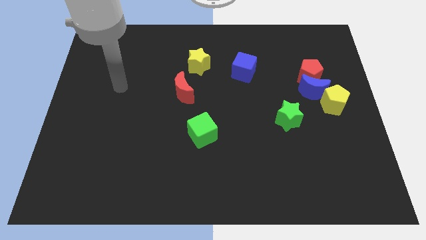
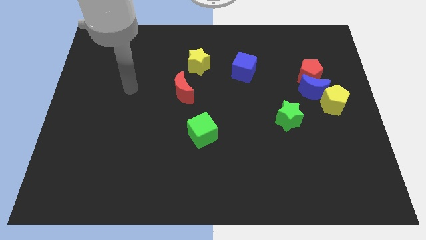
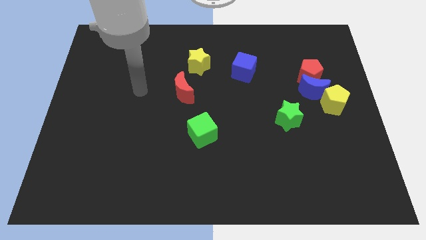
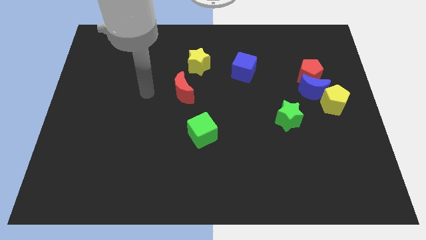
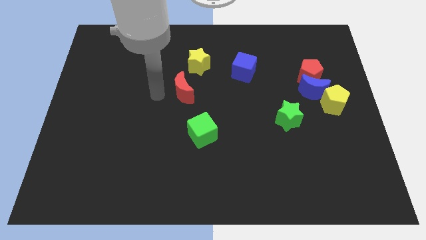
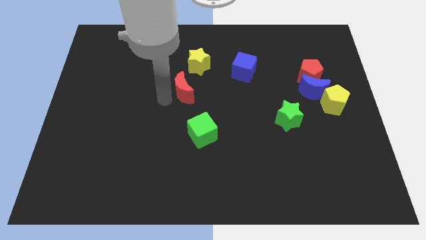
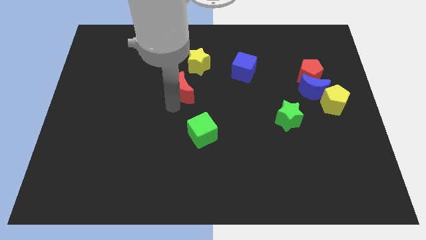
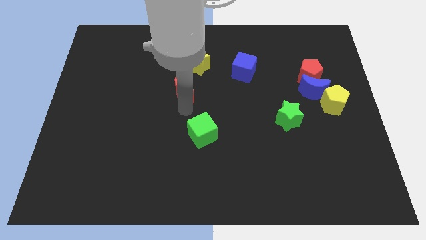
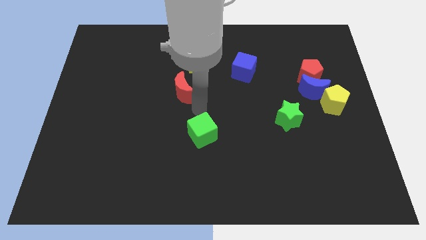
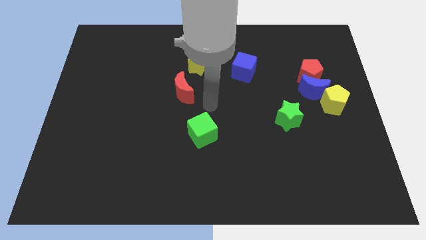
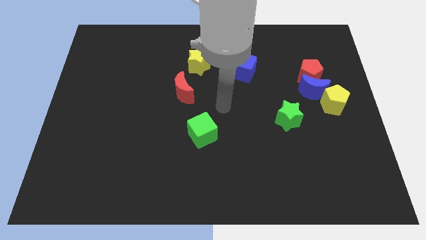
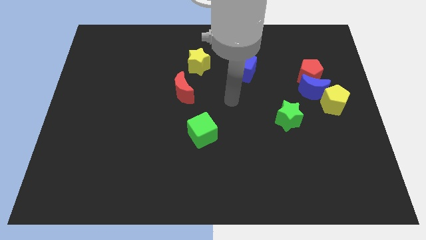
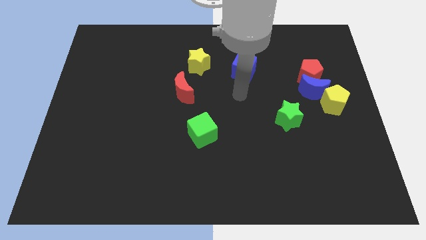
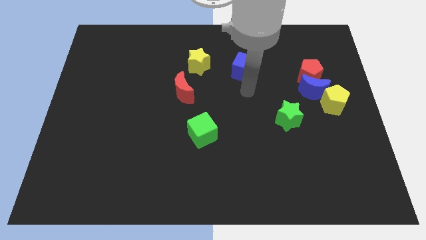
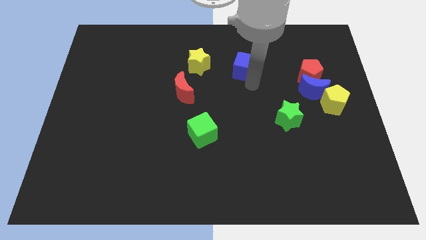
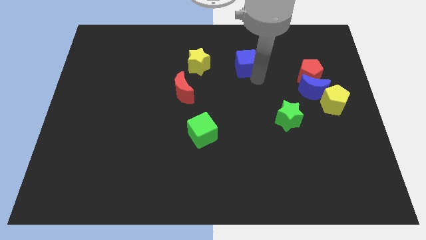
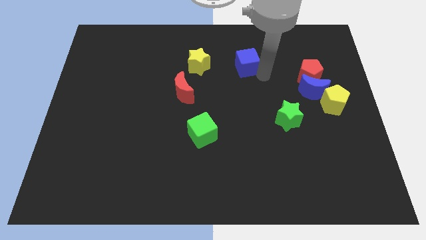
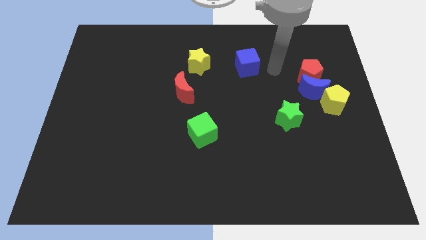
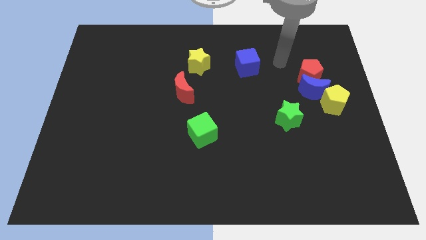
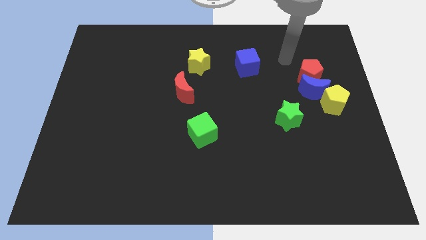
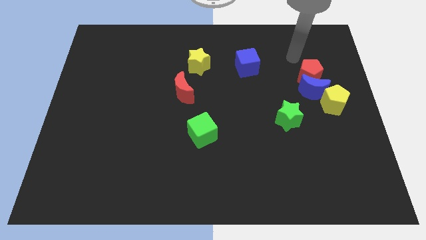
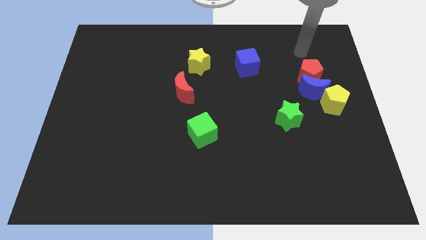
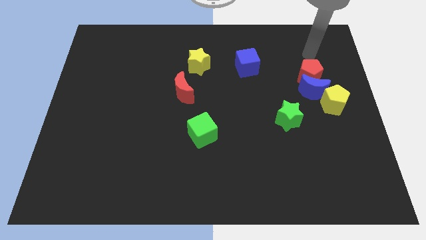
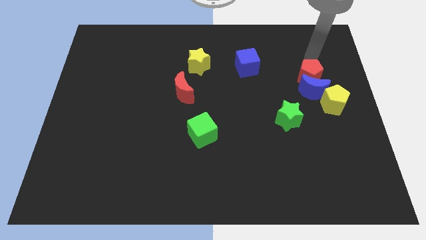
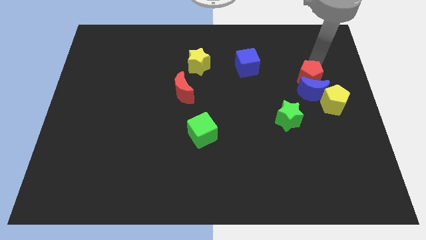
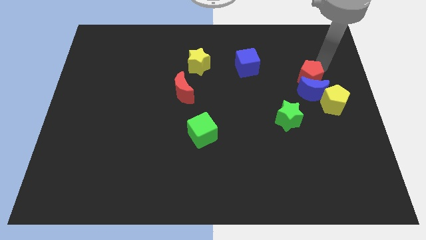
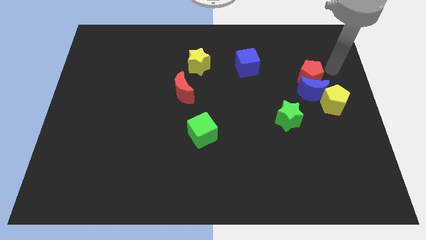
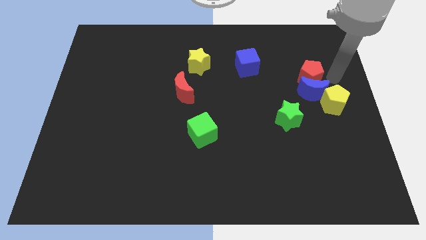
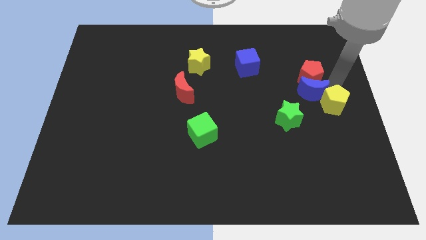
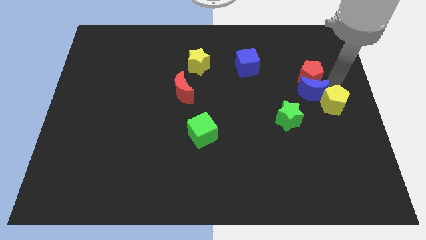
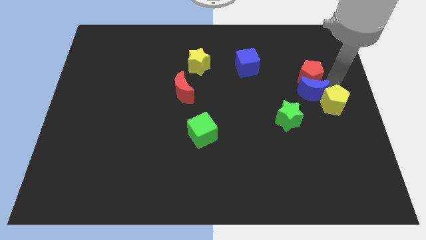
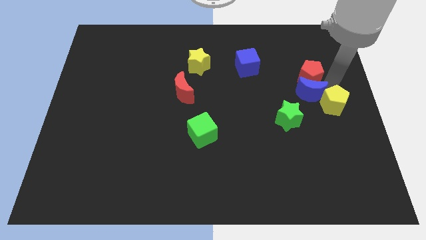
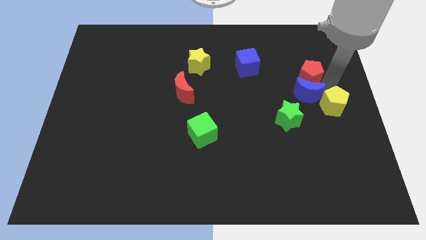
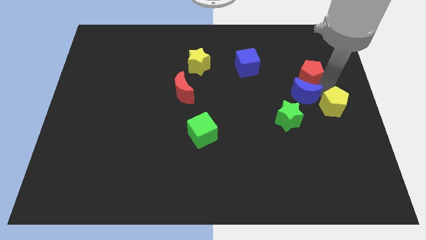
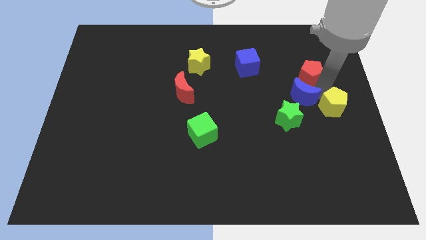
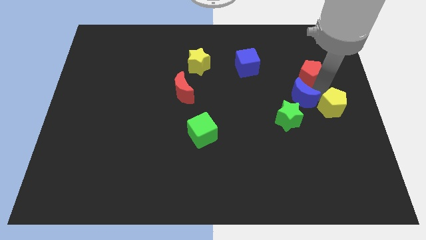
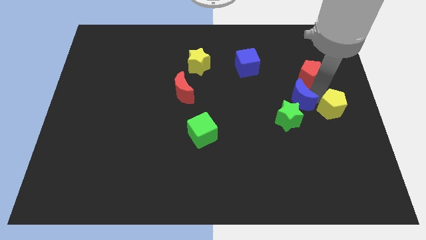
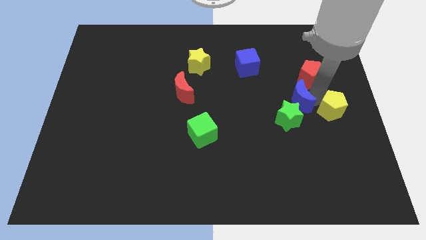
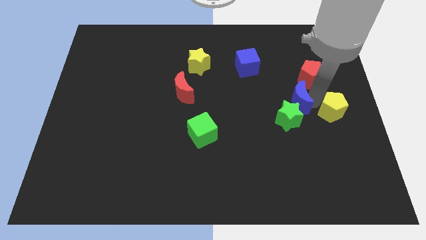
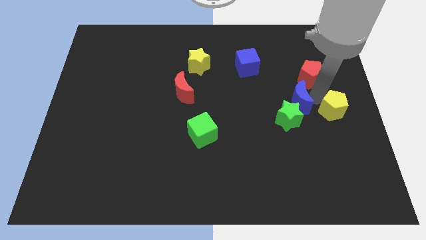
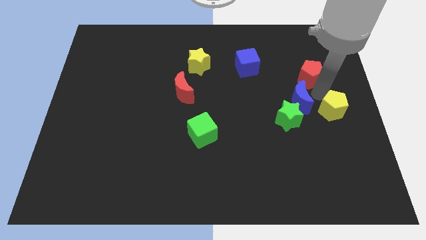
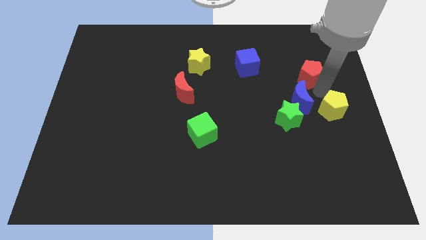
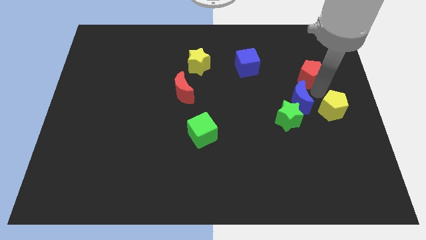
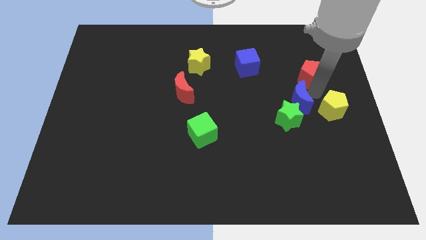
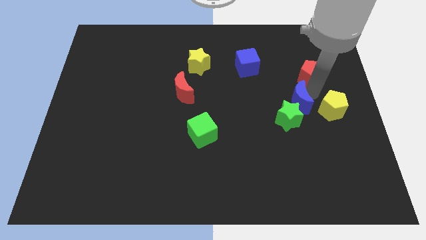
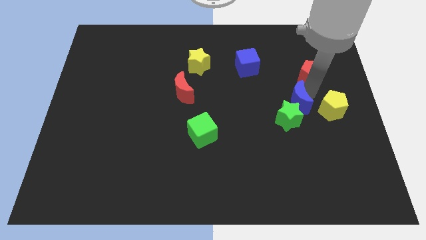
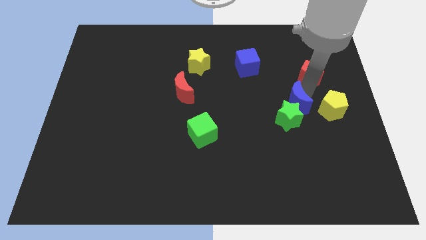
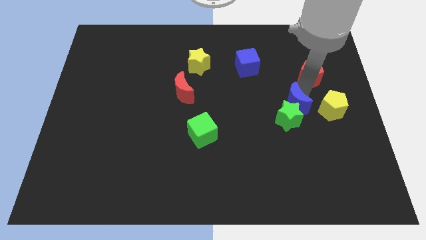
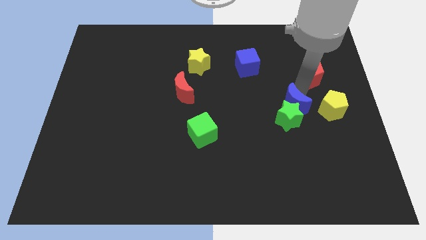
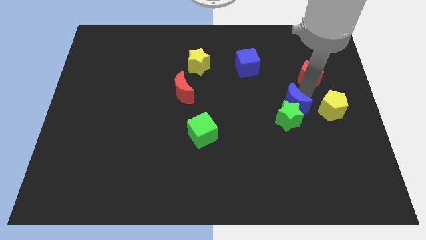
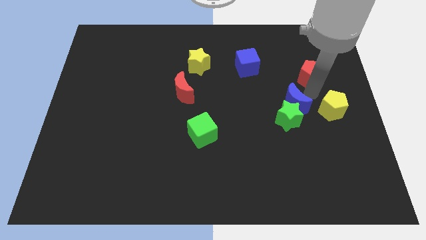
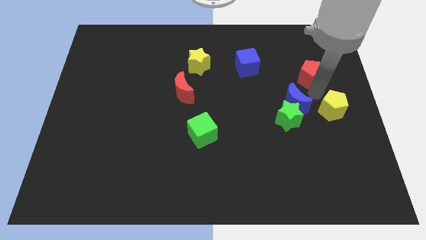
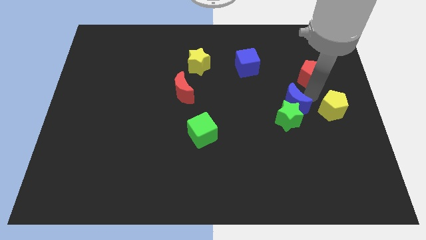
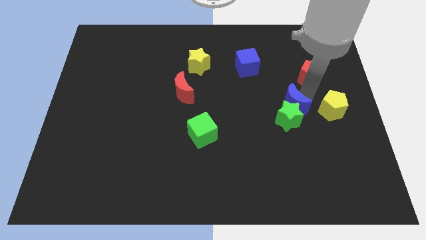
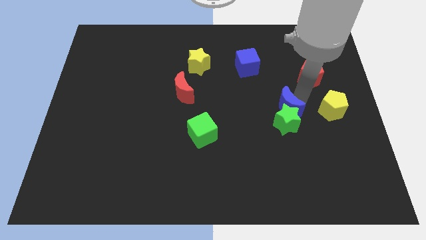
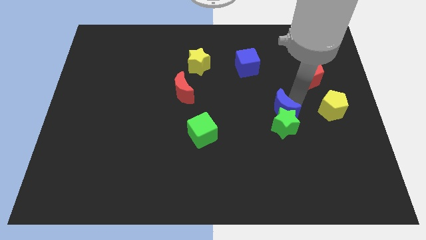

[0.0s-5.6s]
move the blue moon away from the red pentagon and yellow pentagon

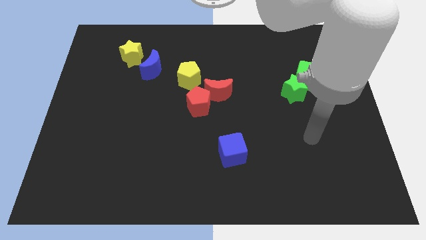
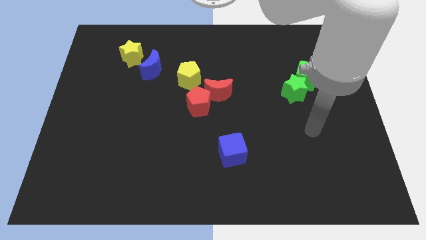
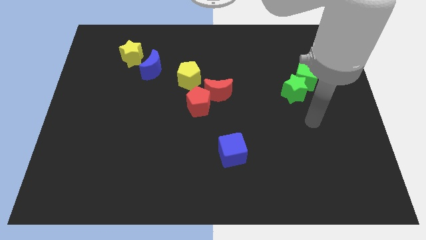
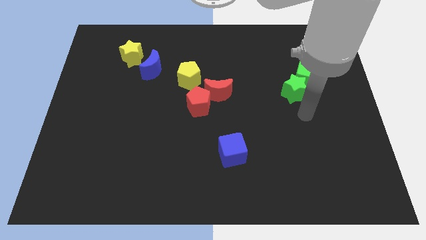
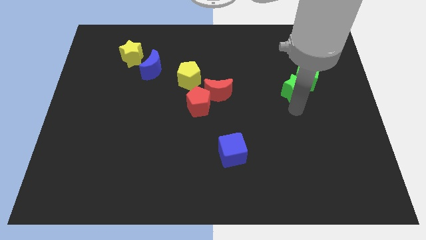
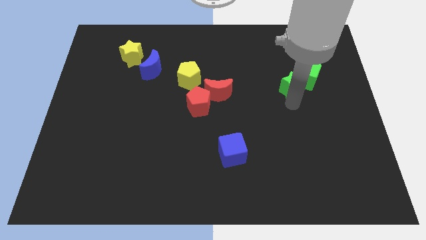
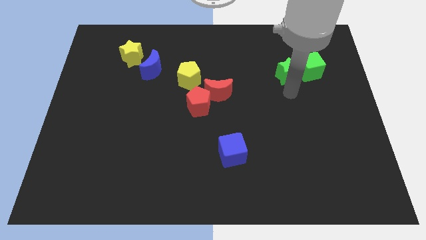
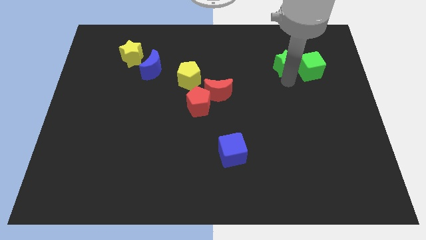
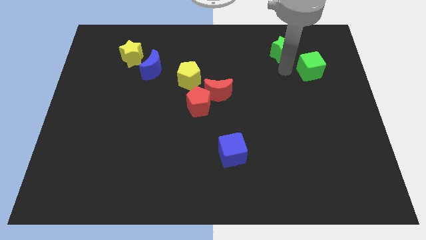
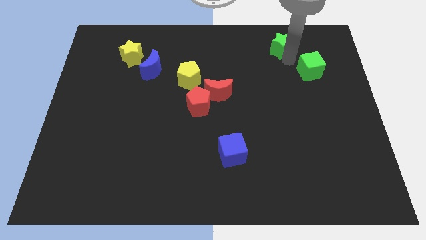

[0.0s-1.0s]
move the green cube away from the green star

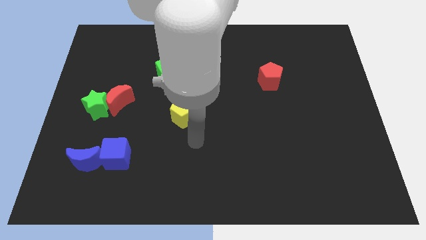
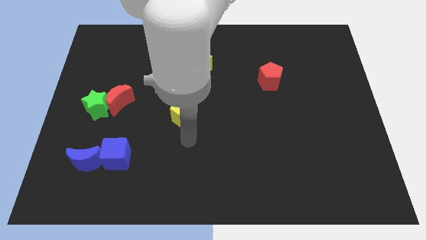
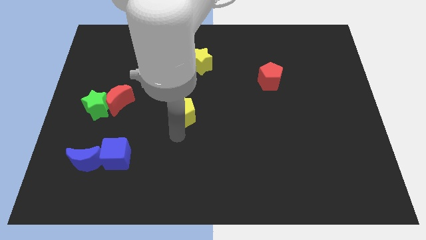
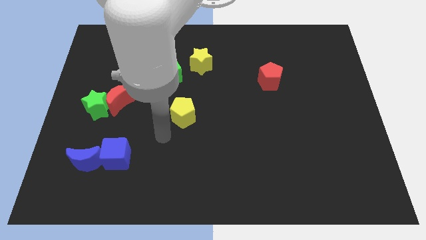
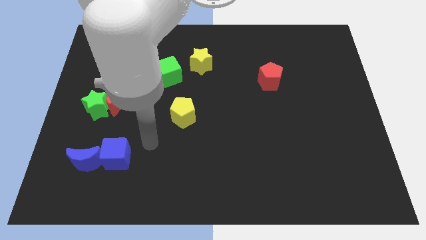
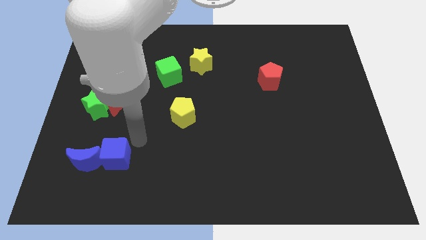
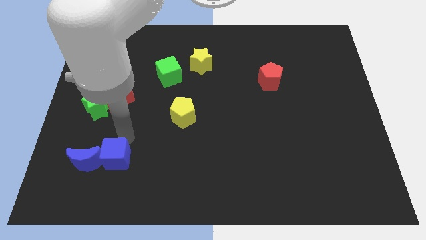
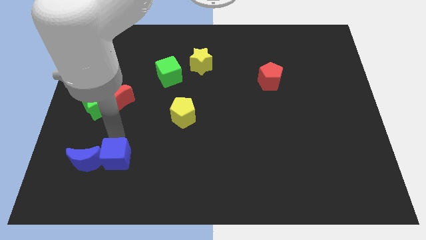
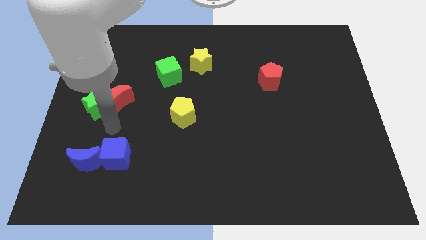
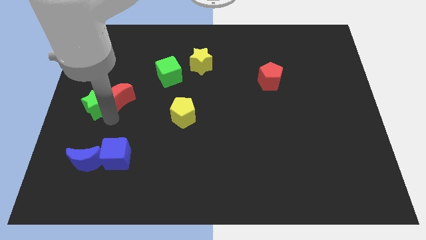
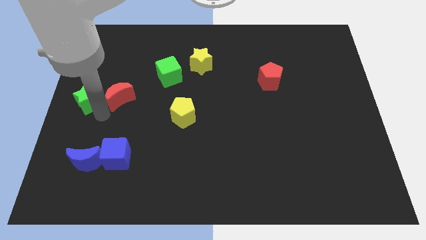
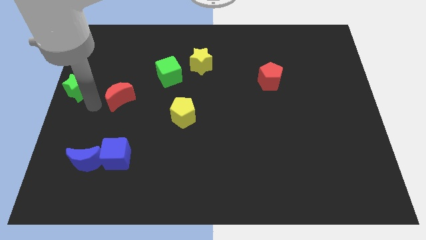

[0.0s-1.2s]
separate the red moon from the green star

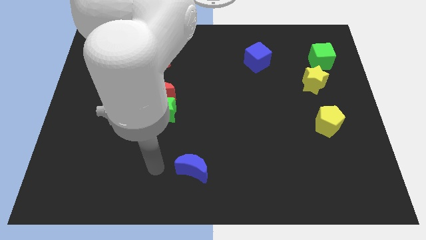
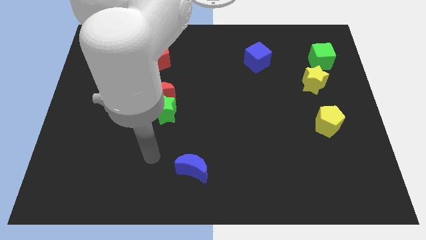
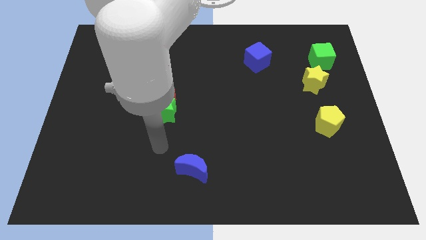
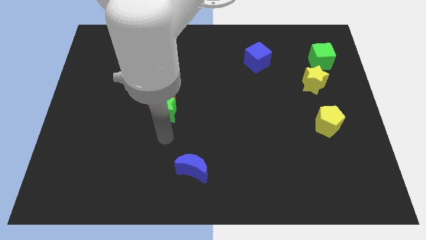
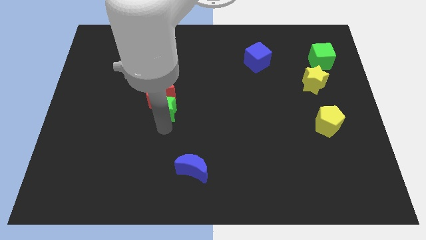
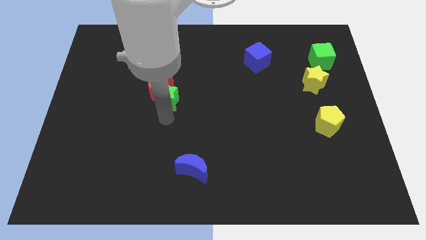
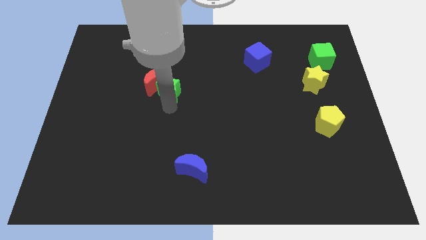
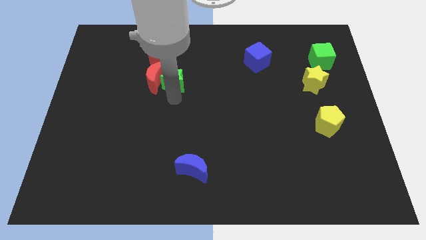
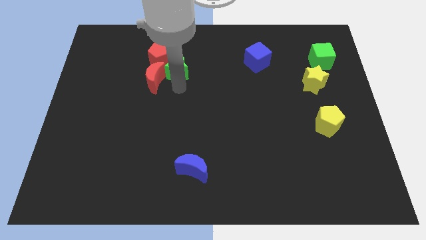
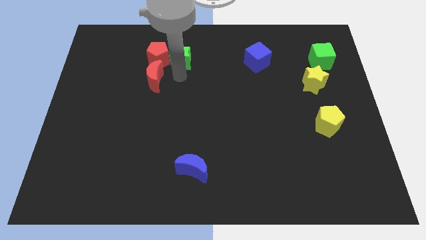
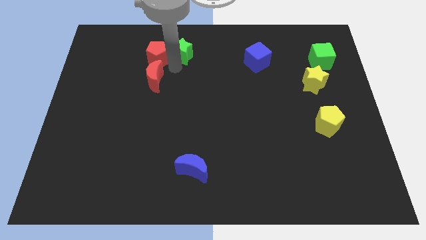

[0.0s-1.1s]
move the red moon away from the green star

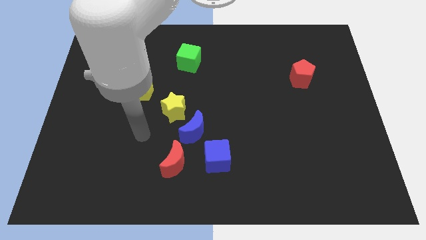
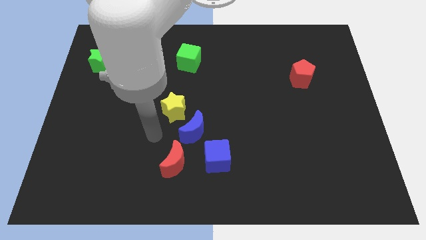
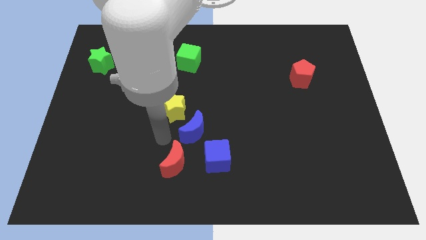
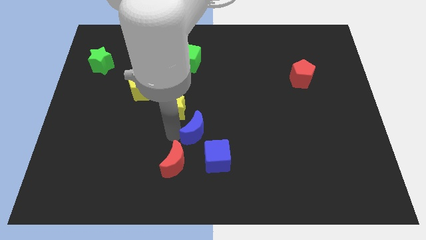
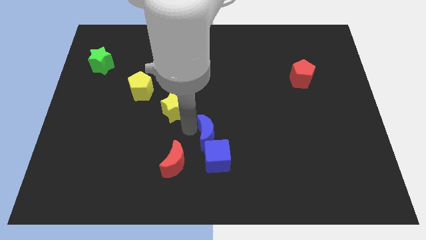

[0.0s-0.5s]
move the yellow star away from the blue moon

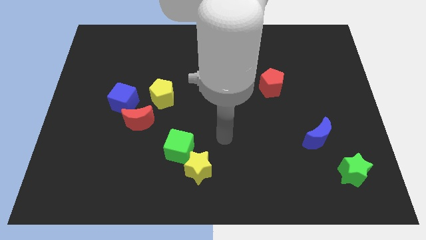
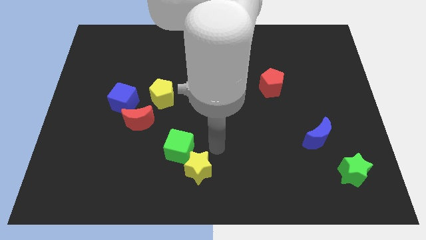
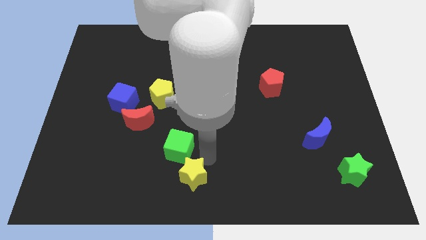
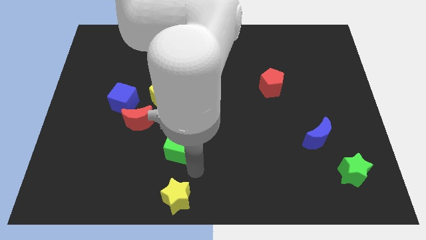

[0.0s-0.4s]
move the green cube away from the yellow star
